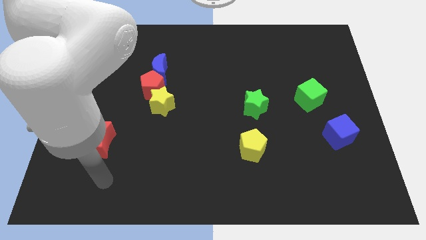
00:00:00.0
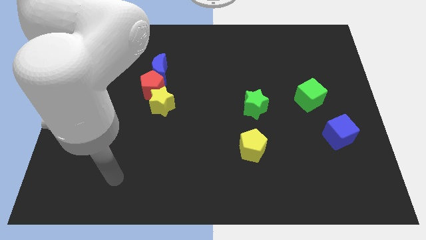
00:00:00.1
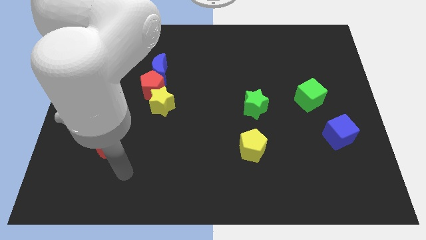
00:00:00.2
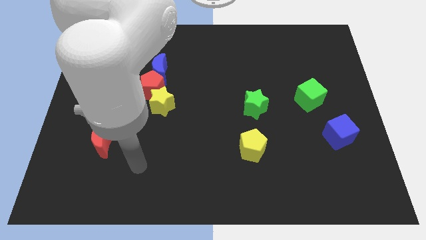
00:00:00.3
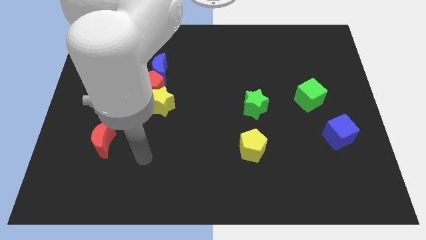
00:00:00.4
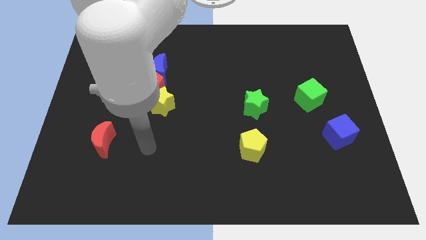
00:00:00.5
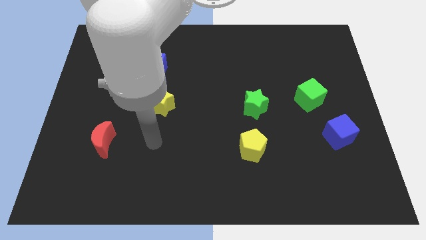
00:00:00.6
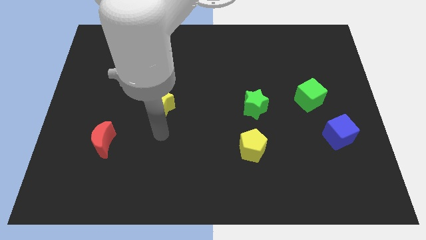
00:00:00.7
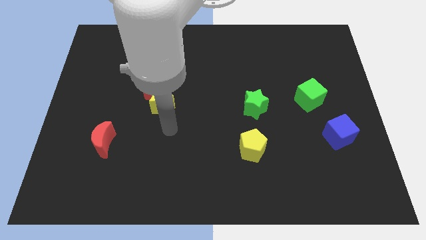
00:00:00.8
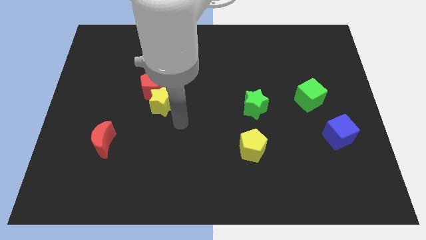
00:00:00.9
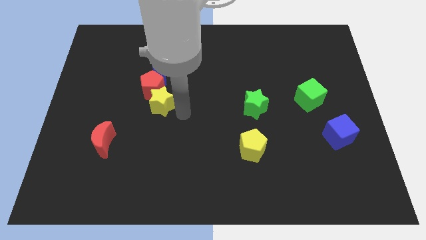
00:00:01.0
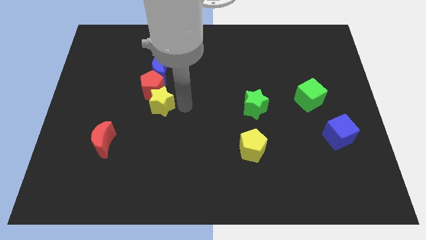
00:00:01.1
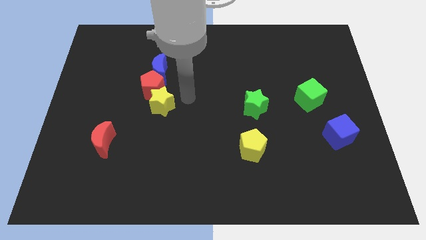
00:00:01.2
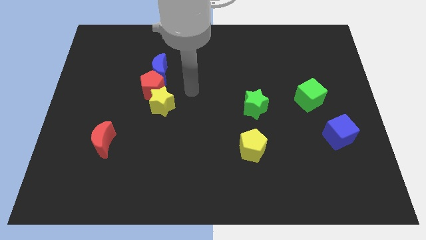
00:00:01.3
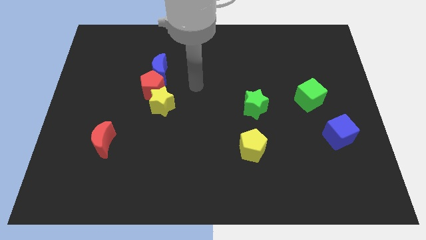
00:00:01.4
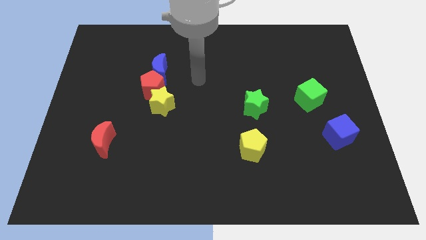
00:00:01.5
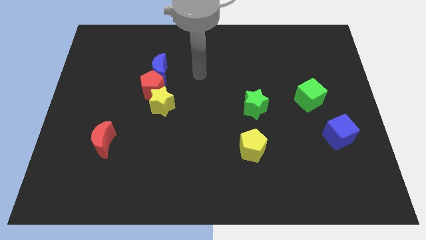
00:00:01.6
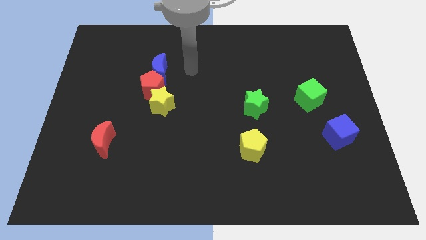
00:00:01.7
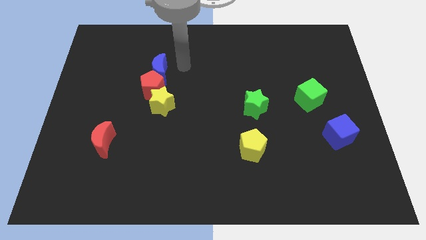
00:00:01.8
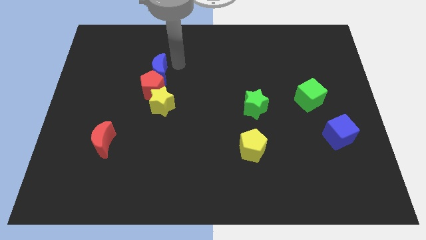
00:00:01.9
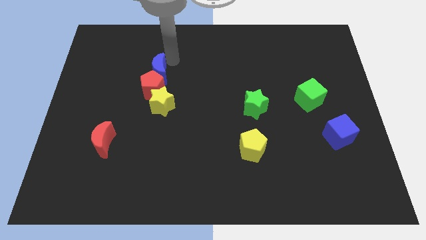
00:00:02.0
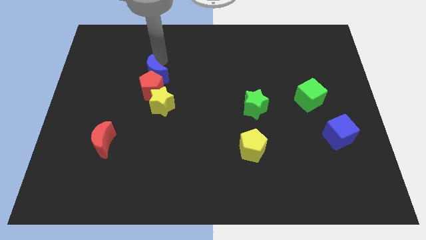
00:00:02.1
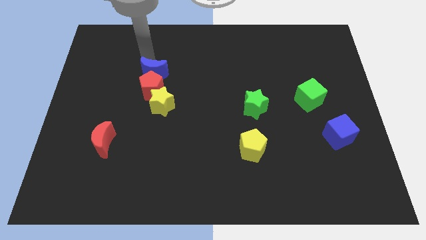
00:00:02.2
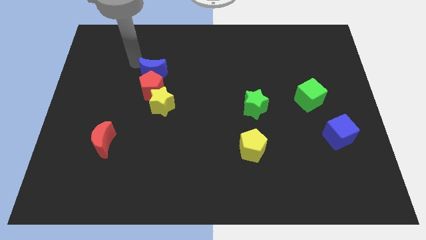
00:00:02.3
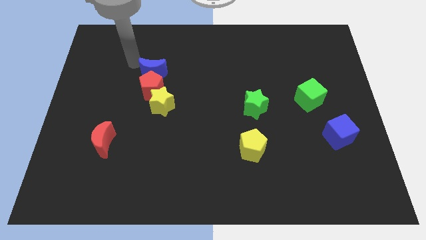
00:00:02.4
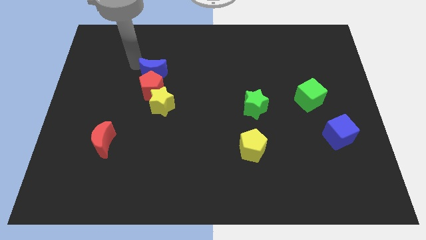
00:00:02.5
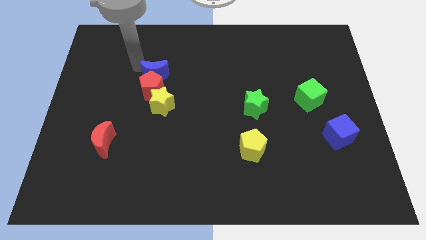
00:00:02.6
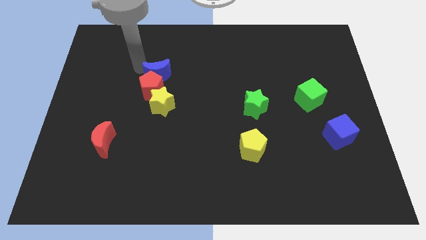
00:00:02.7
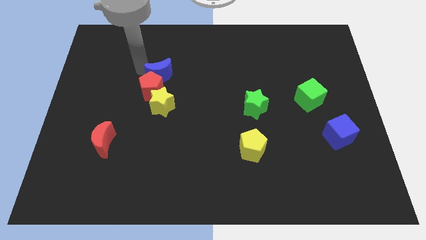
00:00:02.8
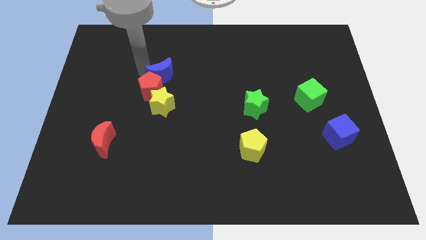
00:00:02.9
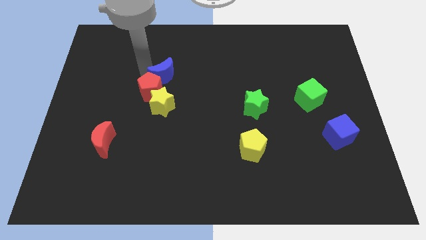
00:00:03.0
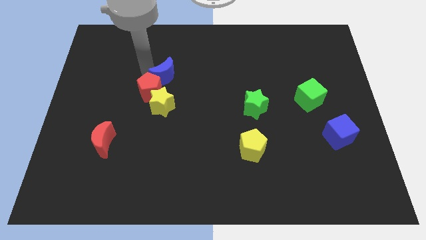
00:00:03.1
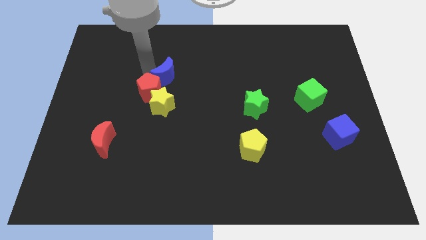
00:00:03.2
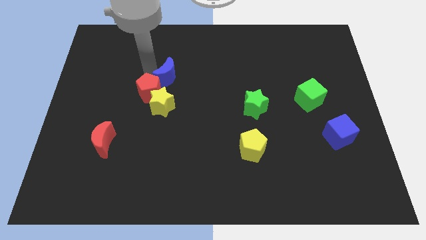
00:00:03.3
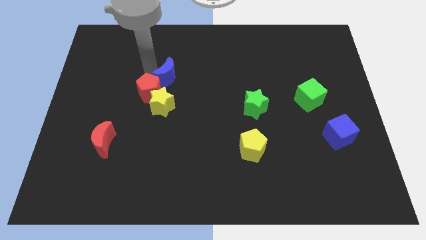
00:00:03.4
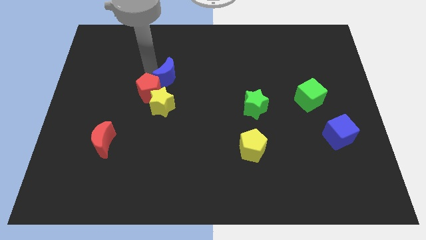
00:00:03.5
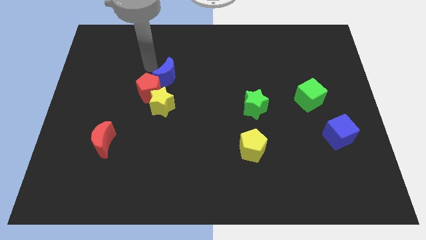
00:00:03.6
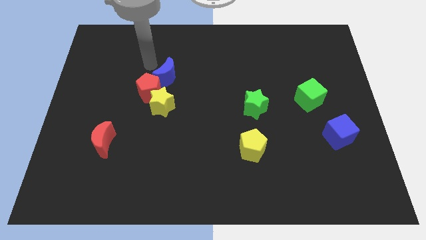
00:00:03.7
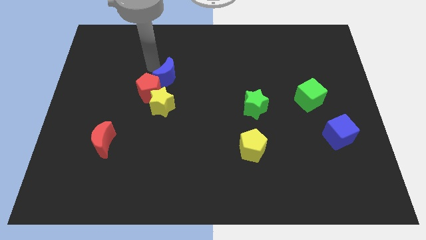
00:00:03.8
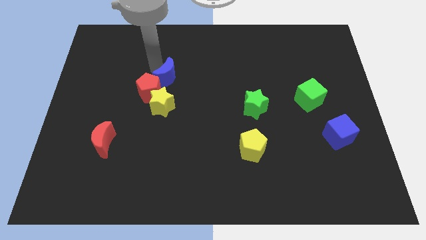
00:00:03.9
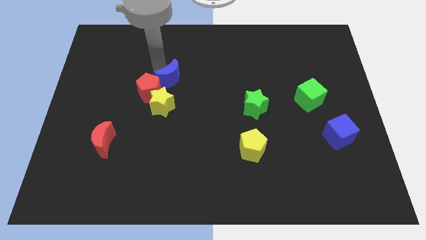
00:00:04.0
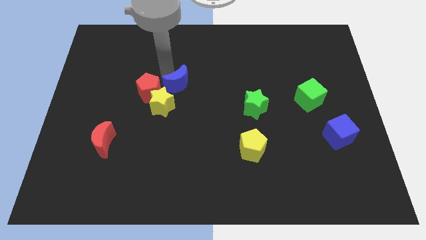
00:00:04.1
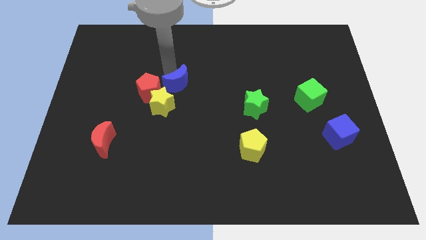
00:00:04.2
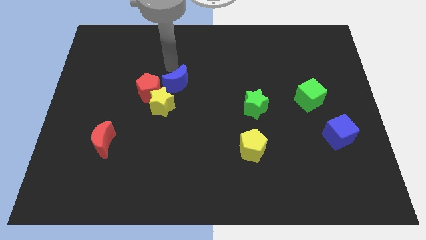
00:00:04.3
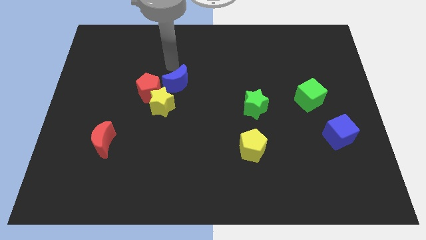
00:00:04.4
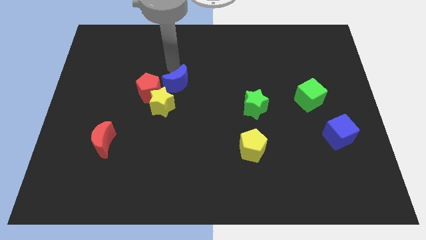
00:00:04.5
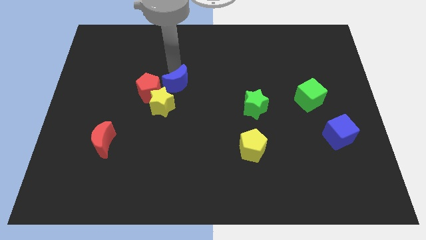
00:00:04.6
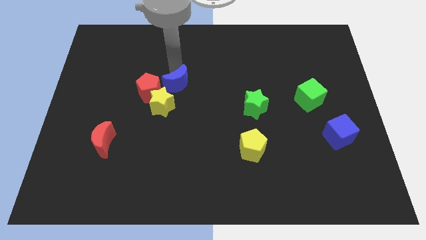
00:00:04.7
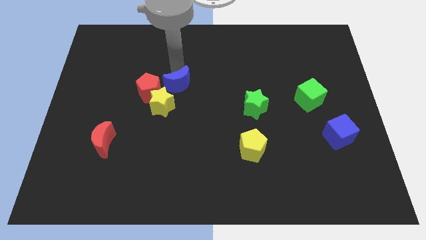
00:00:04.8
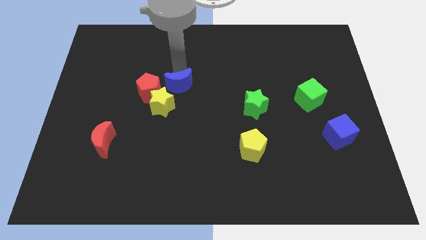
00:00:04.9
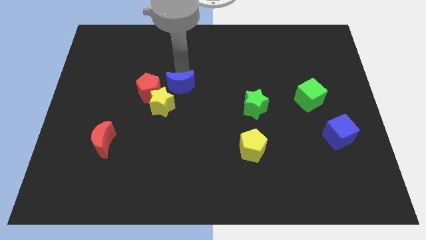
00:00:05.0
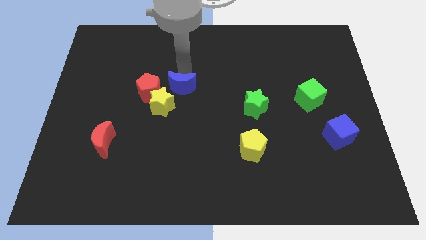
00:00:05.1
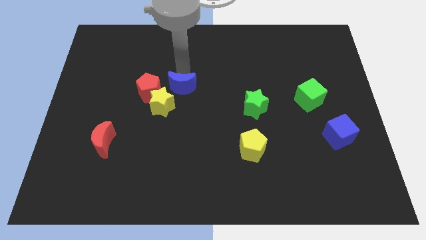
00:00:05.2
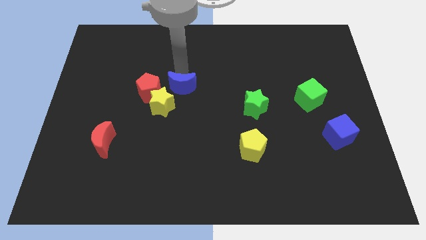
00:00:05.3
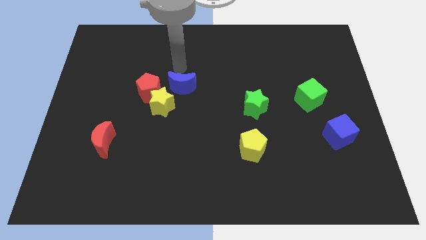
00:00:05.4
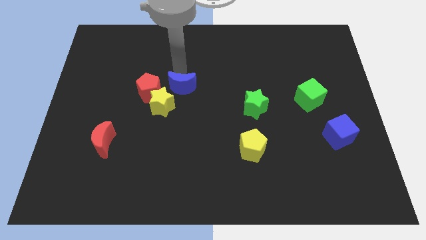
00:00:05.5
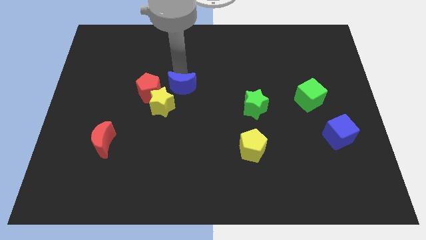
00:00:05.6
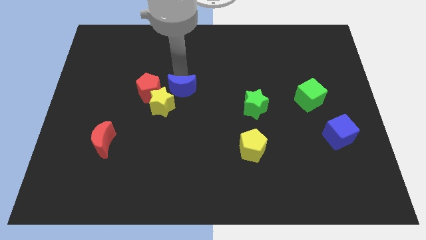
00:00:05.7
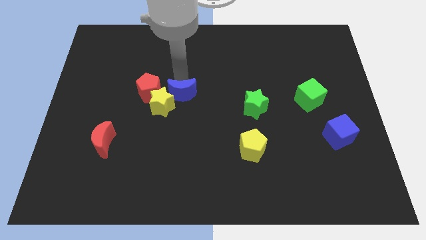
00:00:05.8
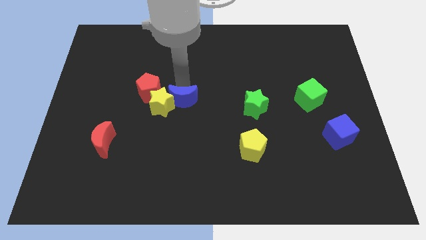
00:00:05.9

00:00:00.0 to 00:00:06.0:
slightly slide the blue moon downwards

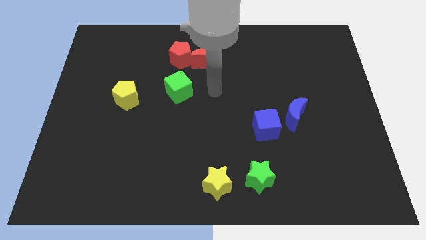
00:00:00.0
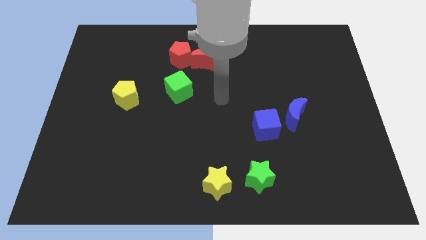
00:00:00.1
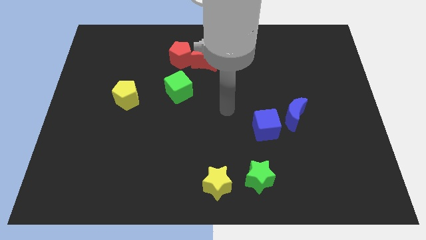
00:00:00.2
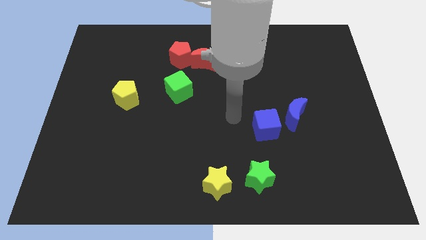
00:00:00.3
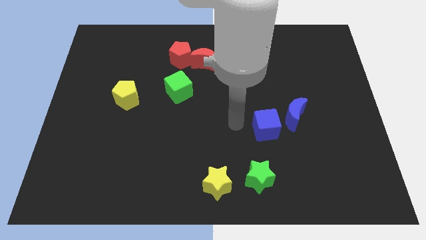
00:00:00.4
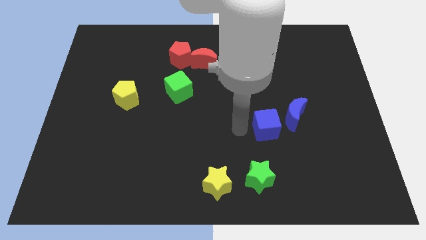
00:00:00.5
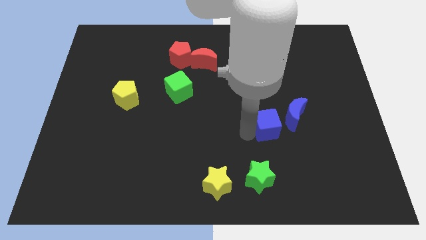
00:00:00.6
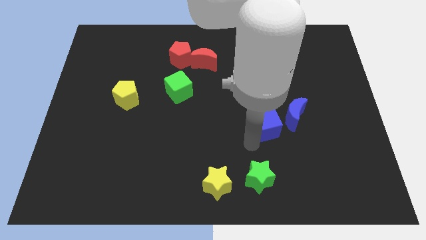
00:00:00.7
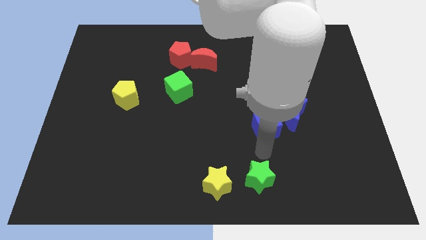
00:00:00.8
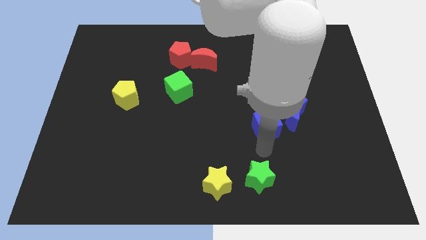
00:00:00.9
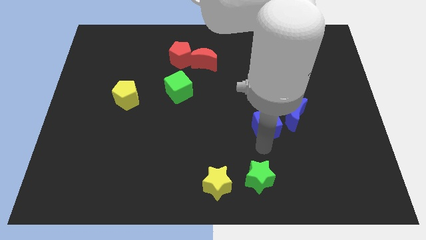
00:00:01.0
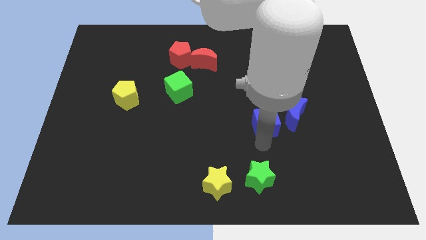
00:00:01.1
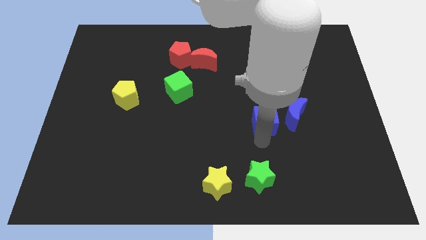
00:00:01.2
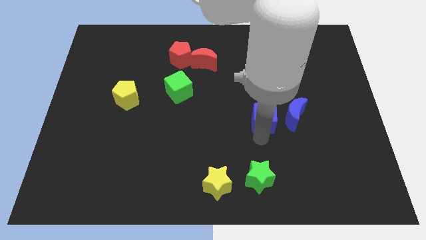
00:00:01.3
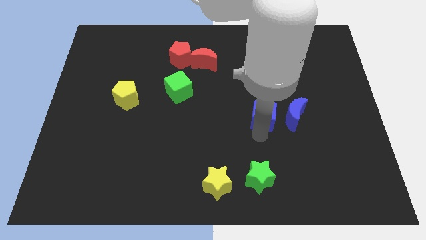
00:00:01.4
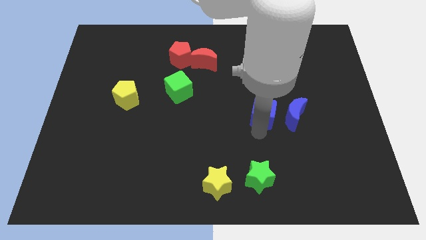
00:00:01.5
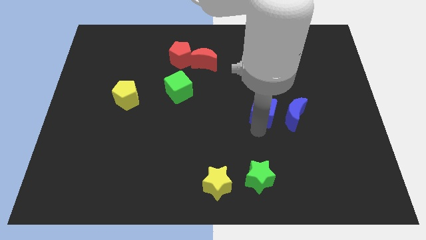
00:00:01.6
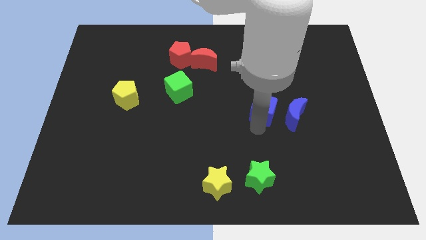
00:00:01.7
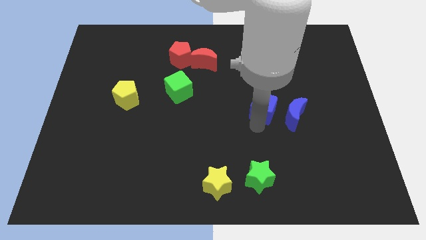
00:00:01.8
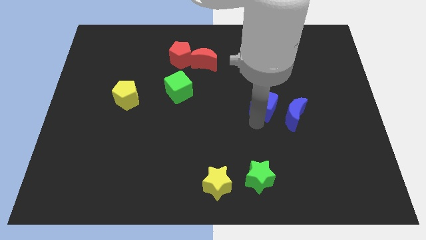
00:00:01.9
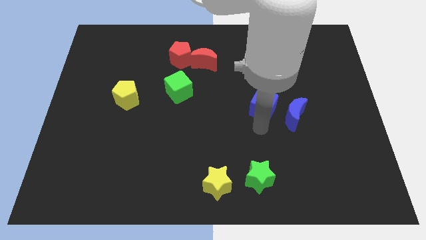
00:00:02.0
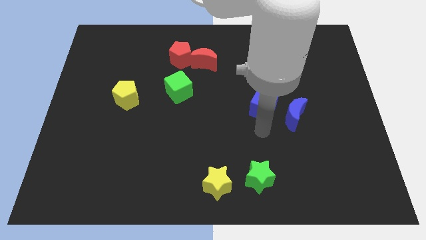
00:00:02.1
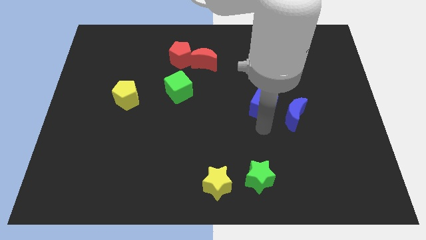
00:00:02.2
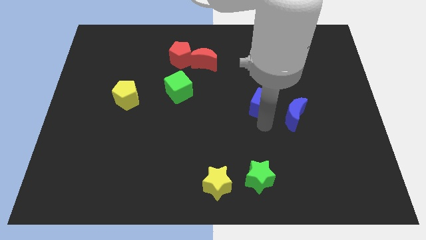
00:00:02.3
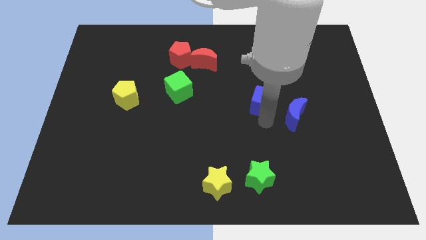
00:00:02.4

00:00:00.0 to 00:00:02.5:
slightly move the blue cube up
